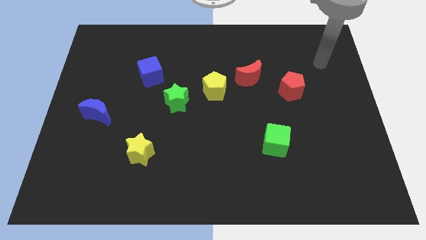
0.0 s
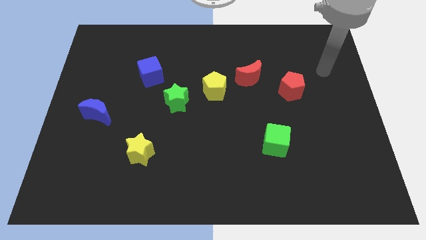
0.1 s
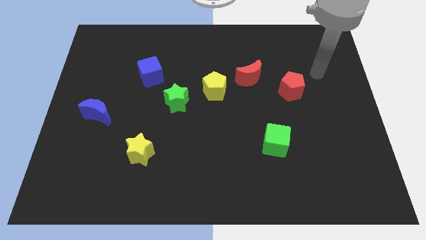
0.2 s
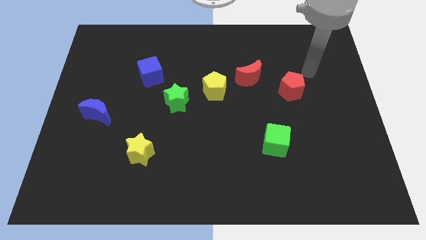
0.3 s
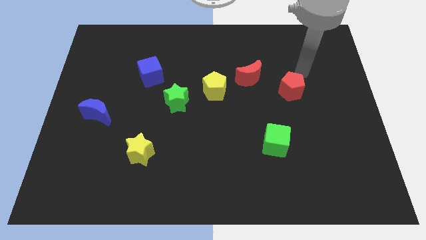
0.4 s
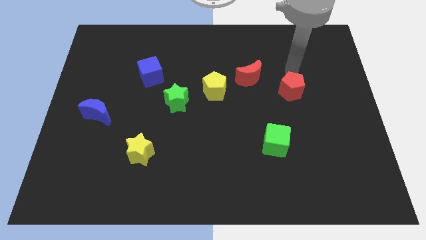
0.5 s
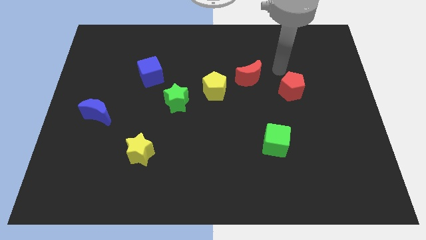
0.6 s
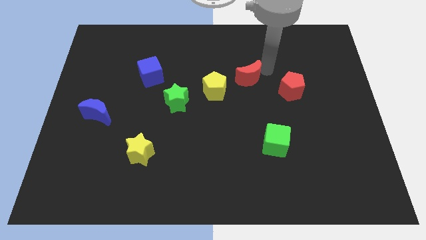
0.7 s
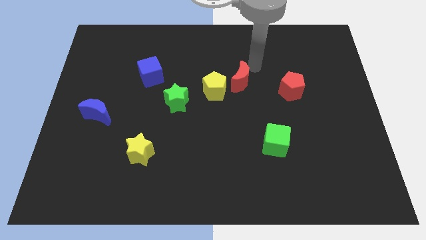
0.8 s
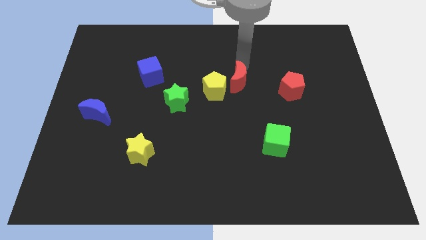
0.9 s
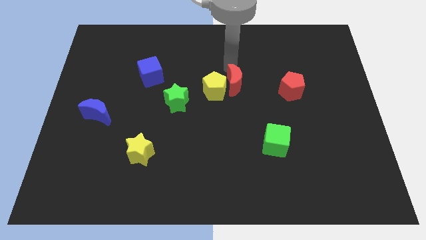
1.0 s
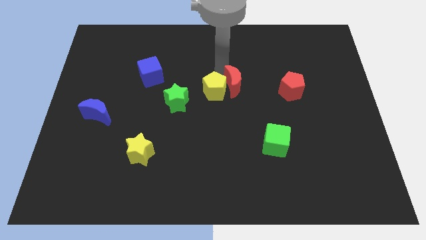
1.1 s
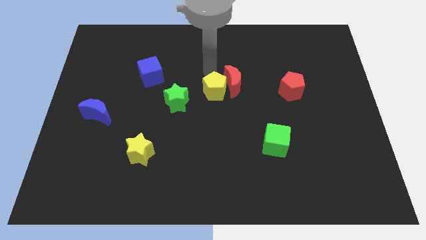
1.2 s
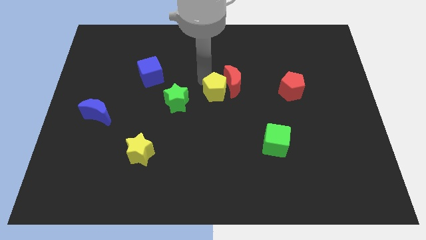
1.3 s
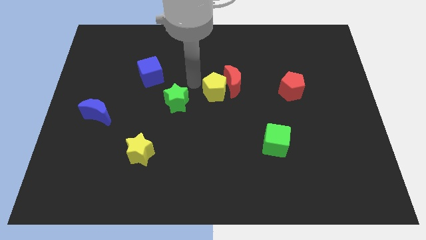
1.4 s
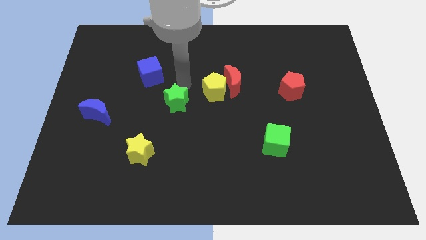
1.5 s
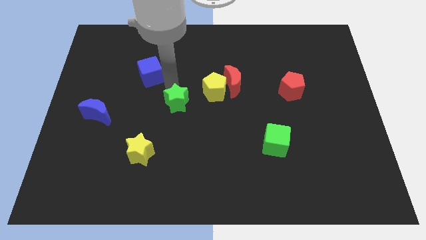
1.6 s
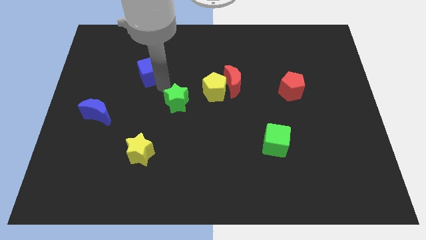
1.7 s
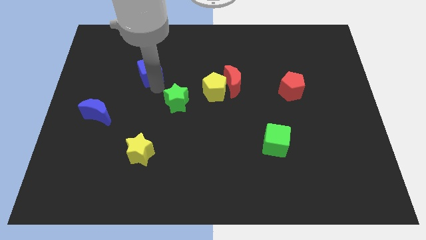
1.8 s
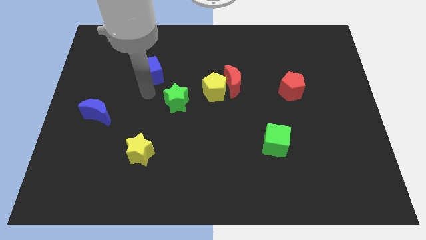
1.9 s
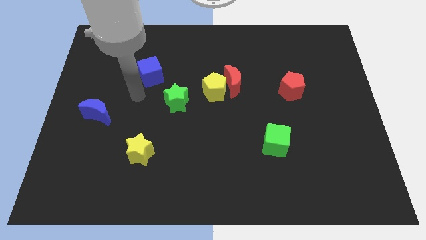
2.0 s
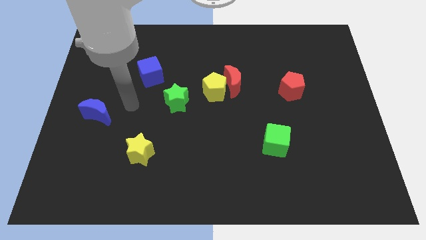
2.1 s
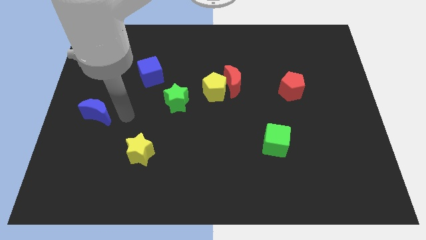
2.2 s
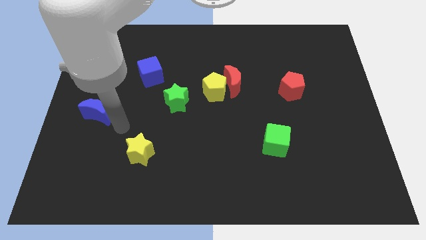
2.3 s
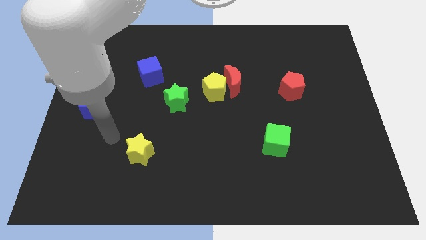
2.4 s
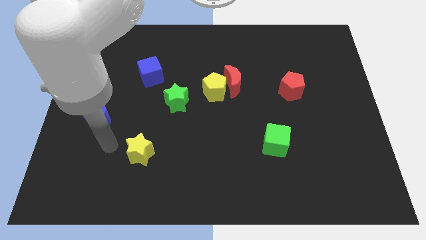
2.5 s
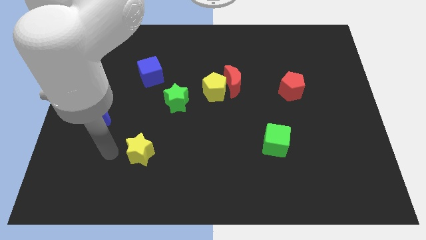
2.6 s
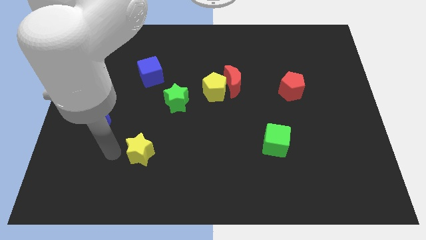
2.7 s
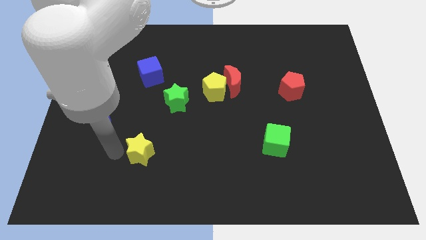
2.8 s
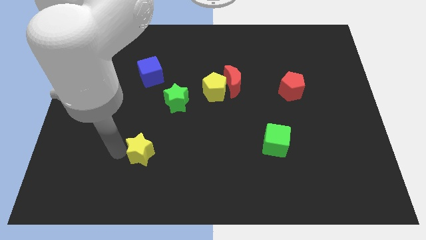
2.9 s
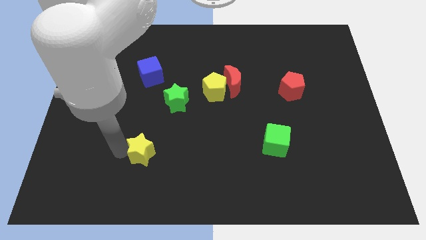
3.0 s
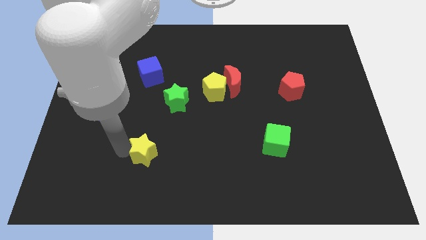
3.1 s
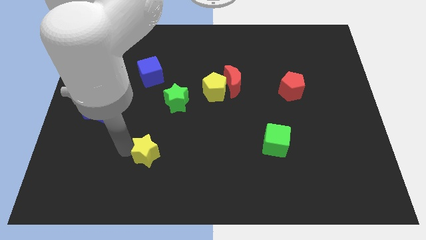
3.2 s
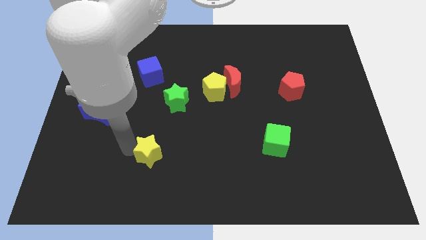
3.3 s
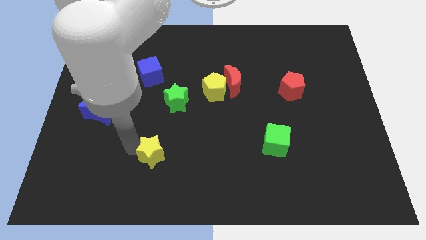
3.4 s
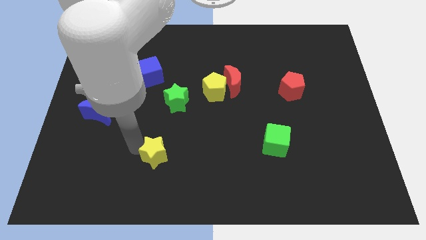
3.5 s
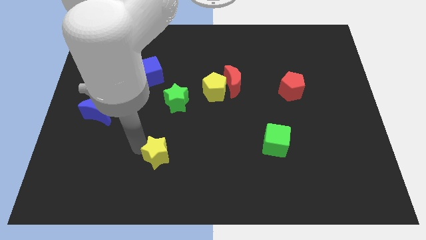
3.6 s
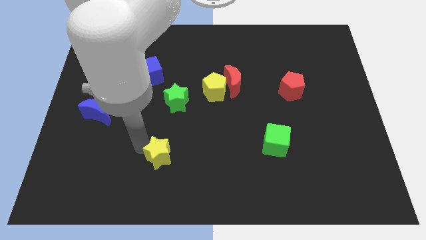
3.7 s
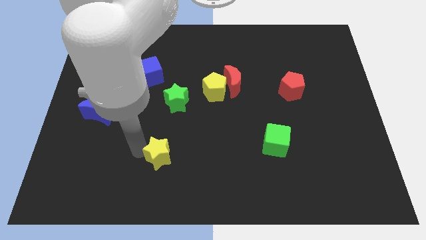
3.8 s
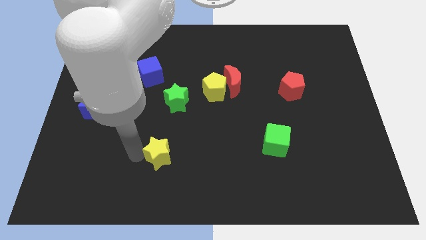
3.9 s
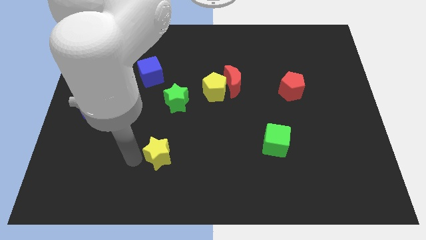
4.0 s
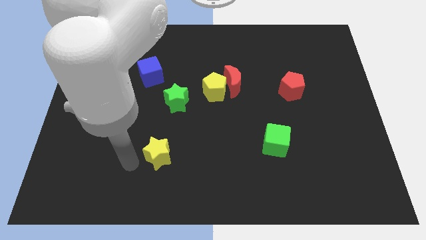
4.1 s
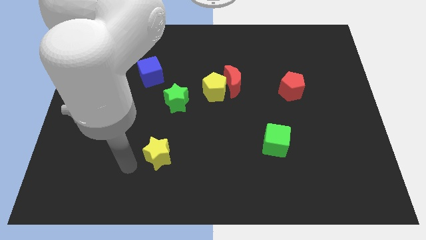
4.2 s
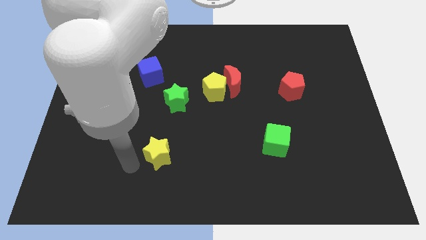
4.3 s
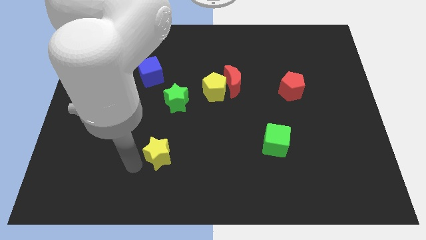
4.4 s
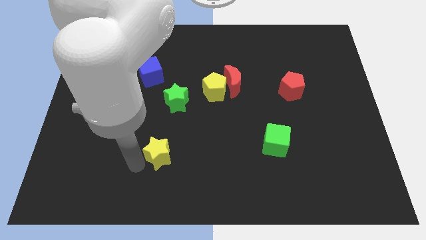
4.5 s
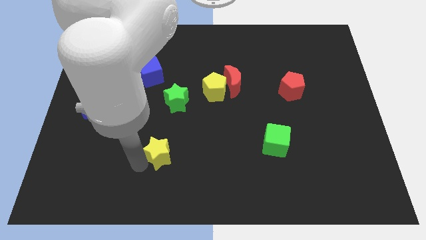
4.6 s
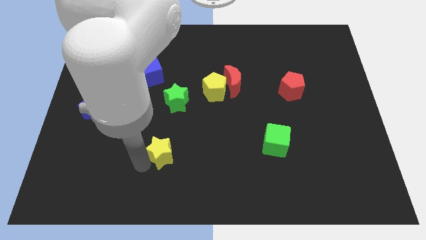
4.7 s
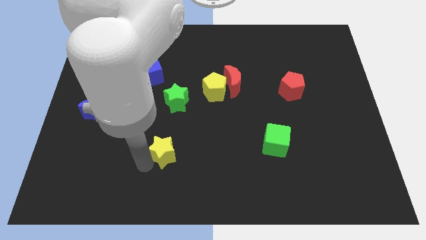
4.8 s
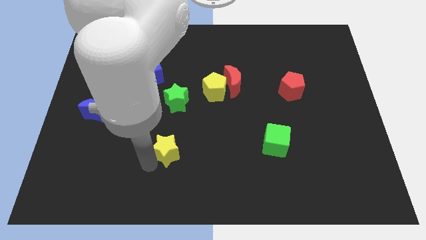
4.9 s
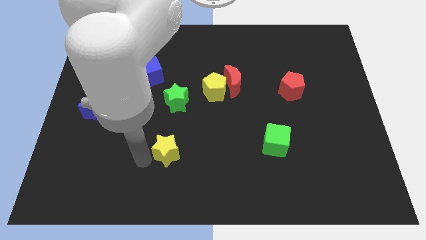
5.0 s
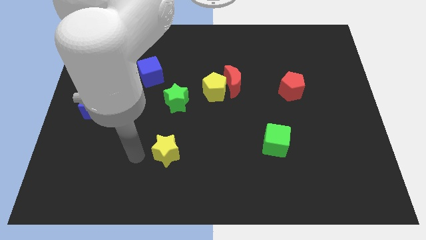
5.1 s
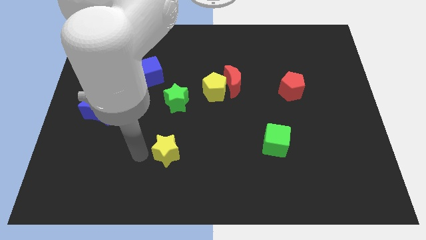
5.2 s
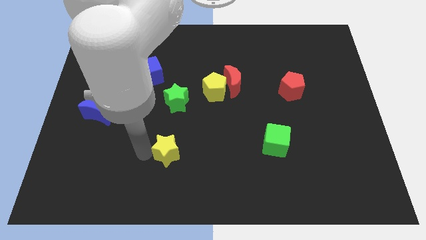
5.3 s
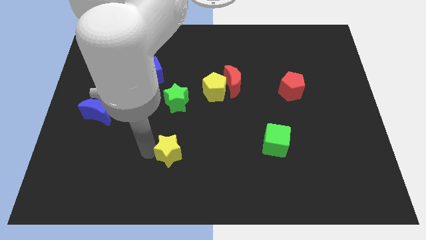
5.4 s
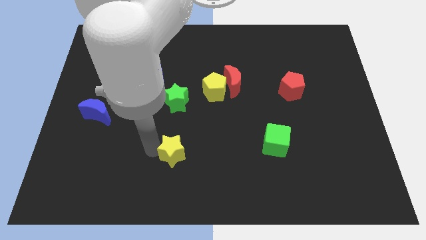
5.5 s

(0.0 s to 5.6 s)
push the yellow star right slightly

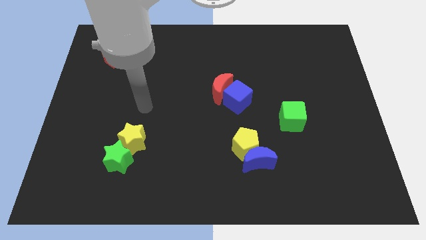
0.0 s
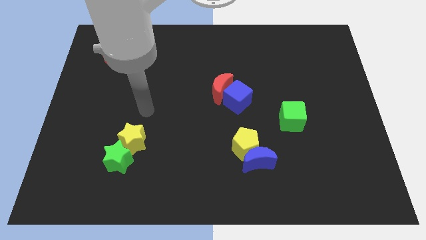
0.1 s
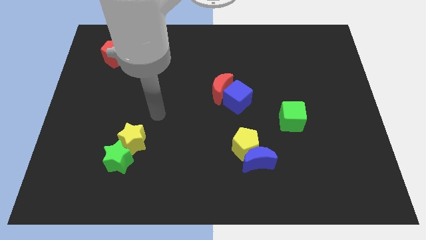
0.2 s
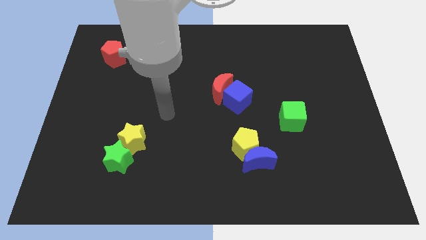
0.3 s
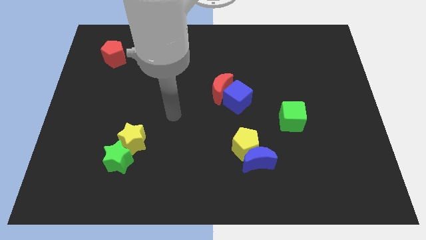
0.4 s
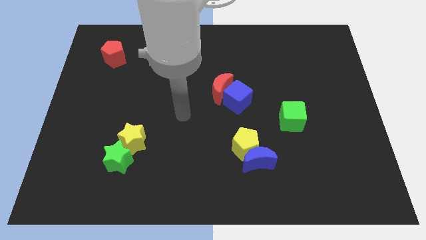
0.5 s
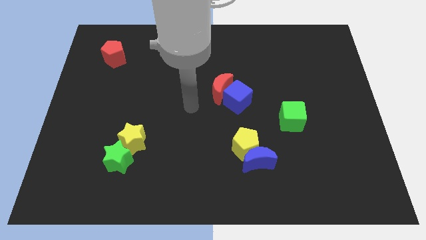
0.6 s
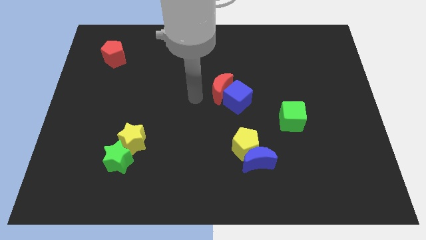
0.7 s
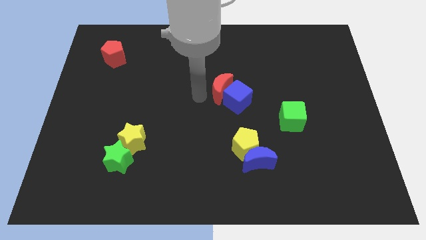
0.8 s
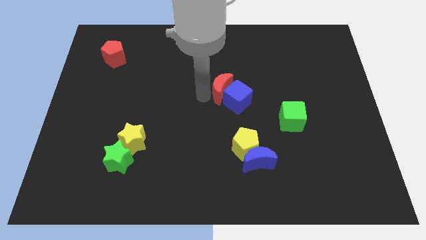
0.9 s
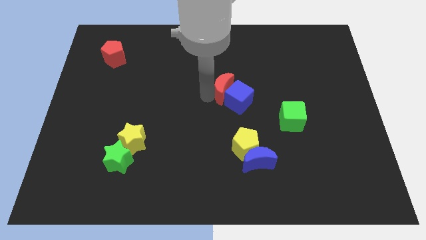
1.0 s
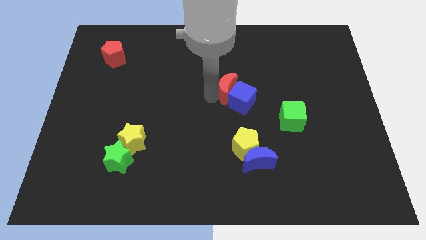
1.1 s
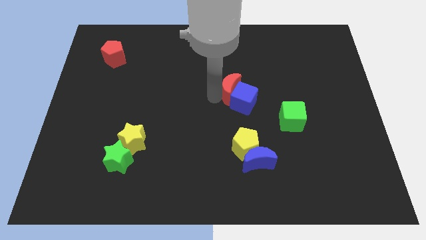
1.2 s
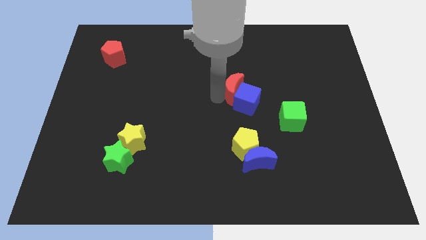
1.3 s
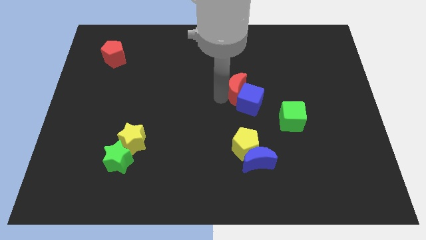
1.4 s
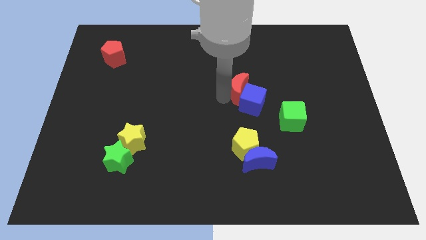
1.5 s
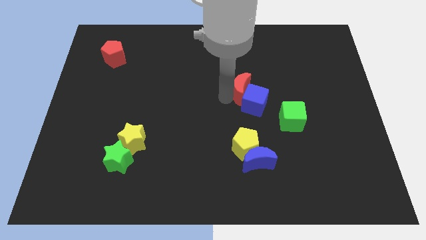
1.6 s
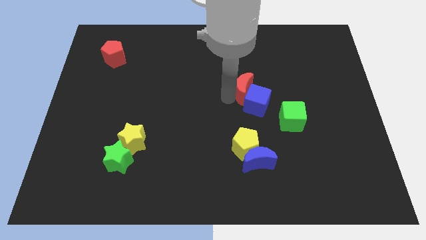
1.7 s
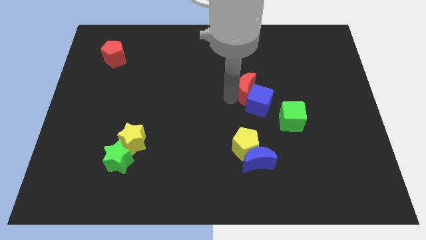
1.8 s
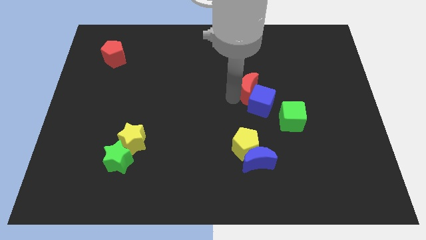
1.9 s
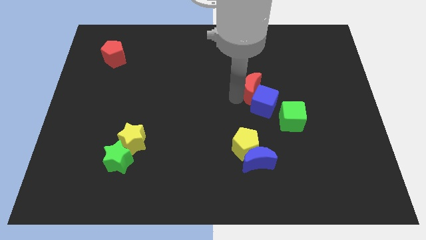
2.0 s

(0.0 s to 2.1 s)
slightly push the red moon to the right

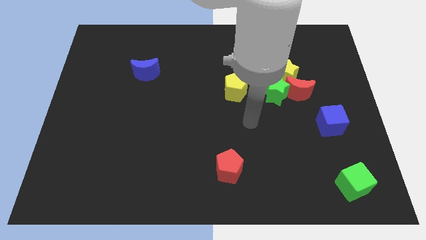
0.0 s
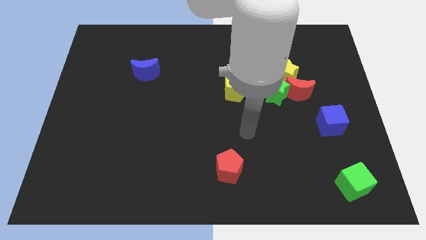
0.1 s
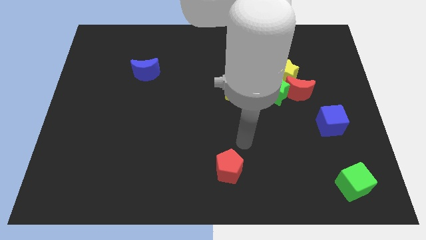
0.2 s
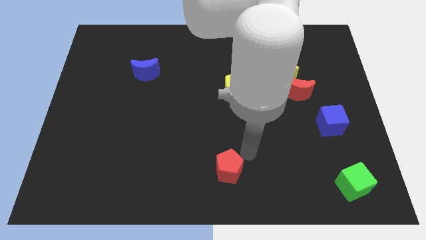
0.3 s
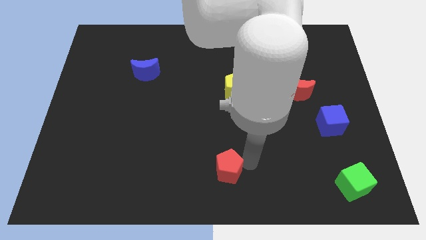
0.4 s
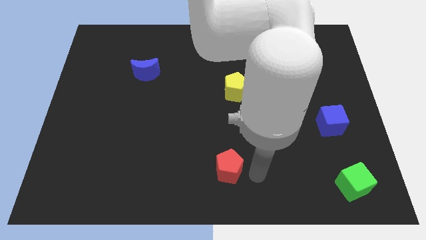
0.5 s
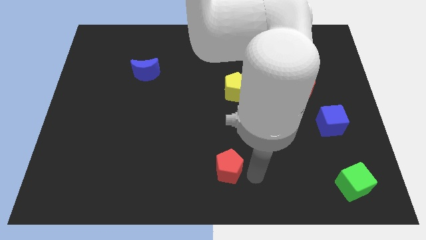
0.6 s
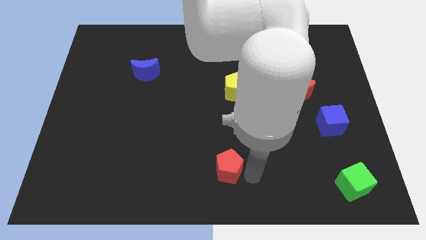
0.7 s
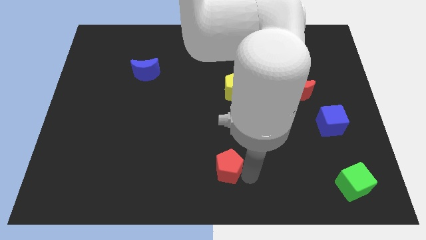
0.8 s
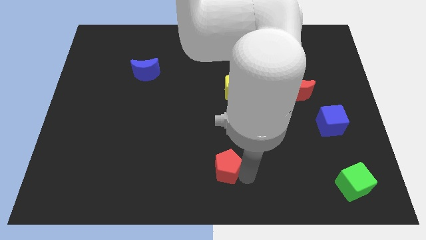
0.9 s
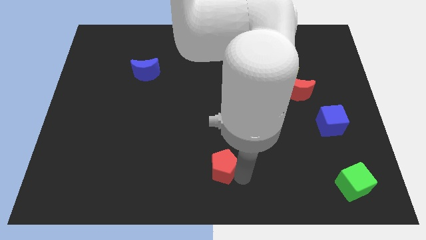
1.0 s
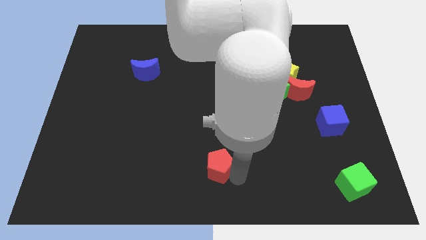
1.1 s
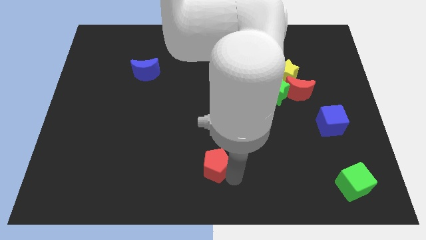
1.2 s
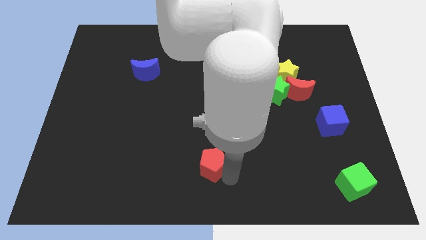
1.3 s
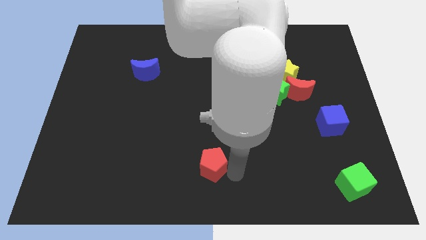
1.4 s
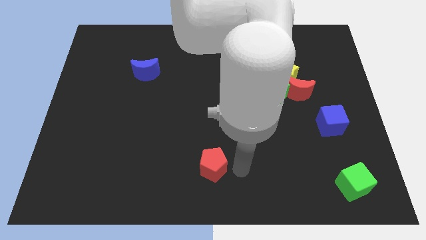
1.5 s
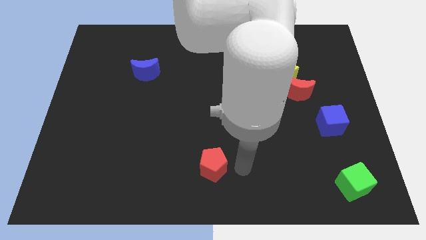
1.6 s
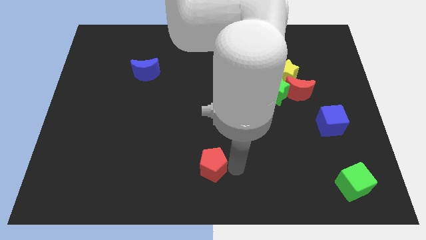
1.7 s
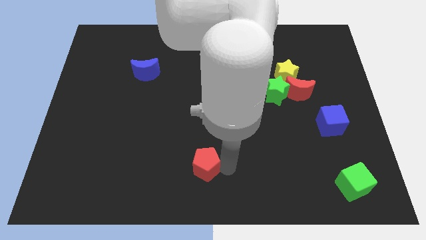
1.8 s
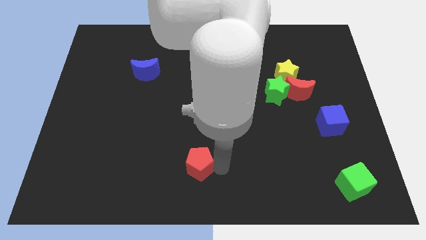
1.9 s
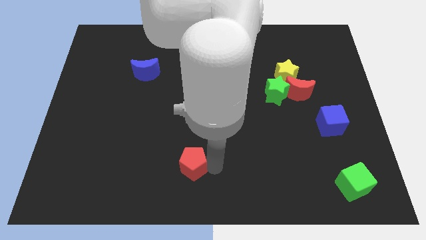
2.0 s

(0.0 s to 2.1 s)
slightly push the red pentagon to the left
